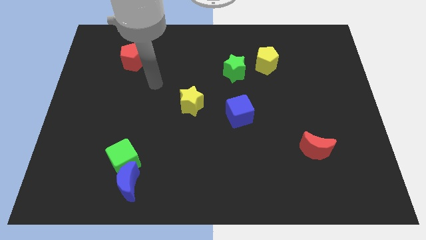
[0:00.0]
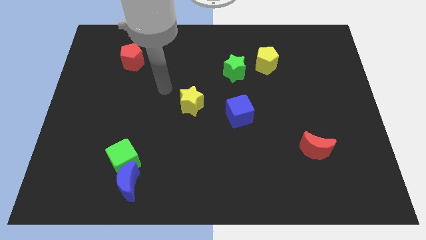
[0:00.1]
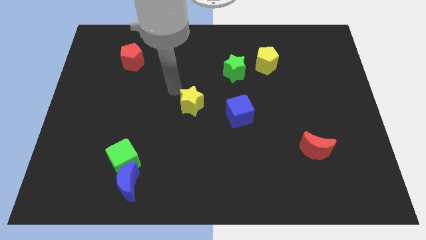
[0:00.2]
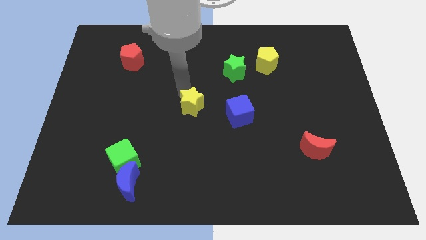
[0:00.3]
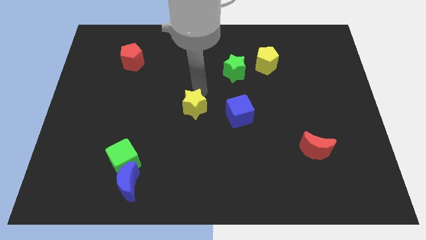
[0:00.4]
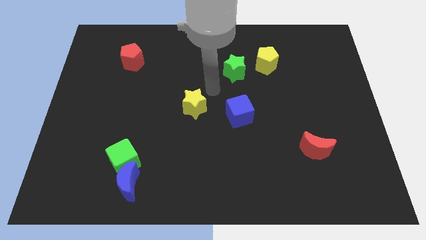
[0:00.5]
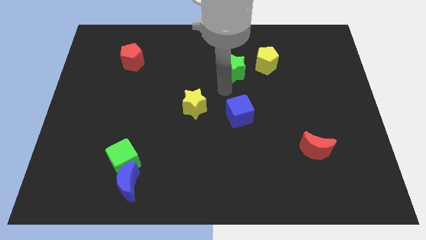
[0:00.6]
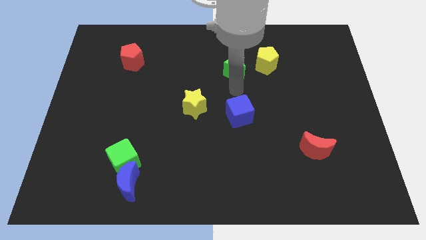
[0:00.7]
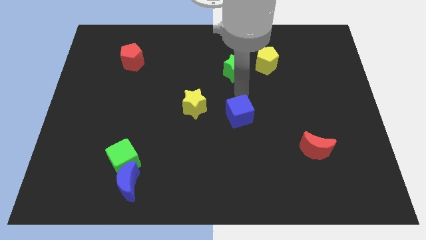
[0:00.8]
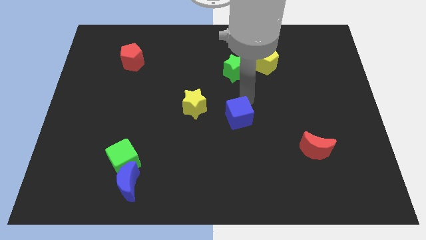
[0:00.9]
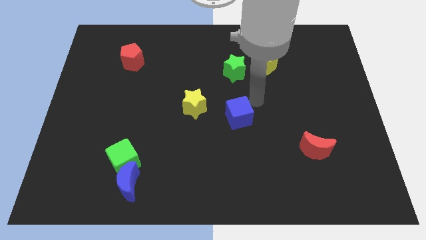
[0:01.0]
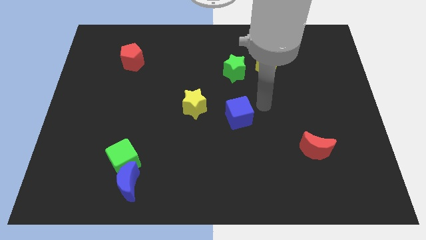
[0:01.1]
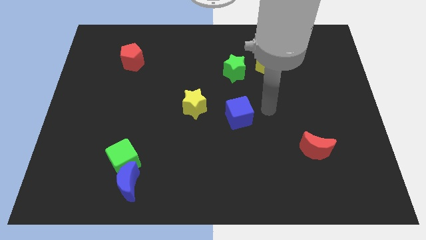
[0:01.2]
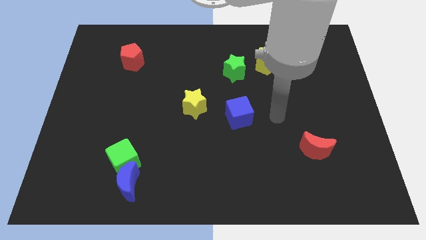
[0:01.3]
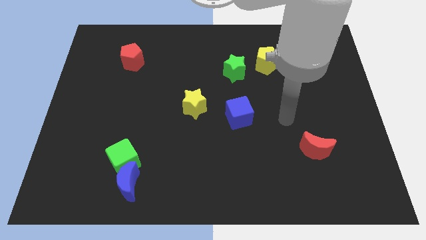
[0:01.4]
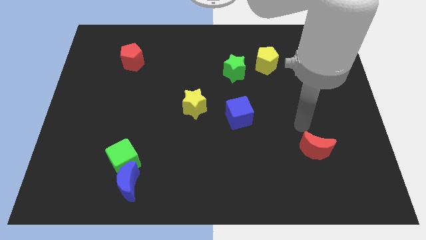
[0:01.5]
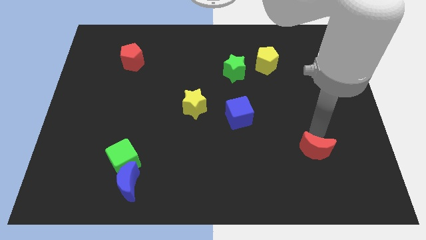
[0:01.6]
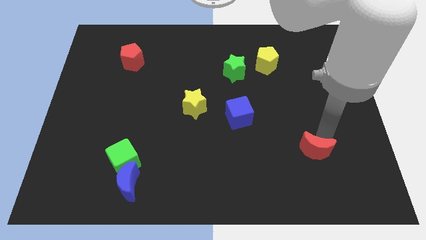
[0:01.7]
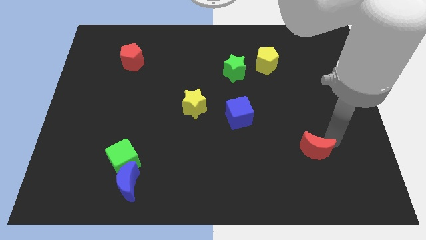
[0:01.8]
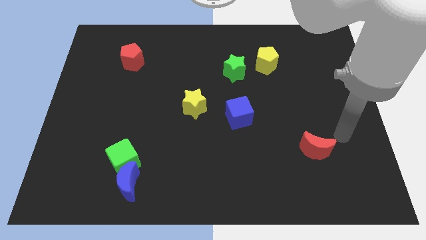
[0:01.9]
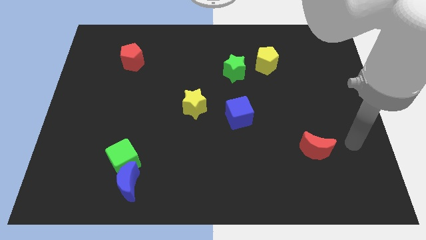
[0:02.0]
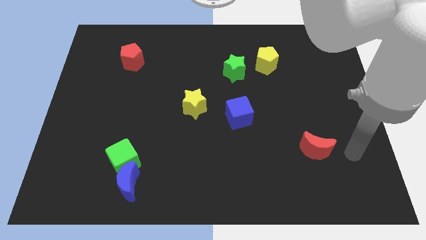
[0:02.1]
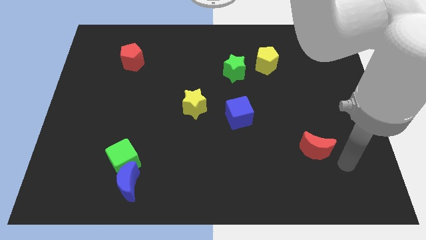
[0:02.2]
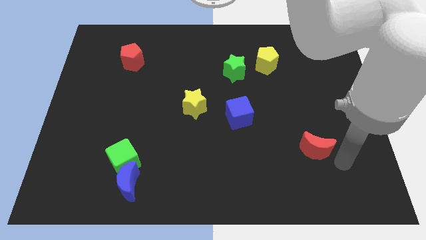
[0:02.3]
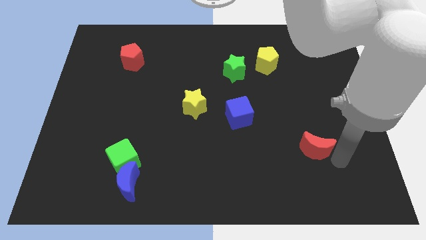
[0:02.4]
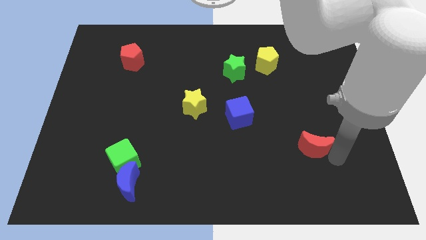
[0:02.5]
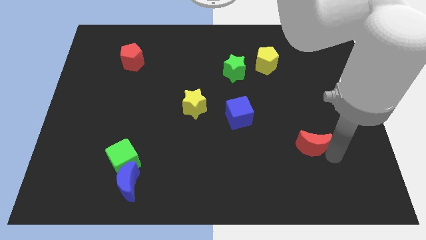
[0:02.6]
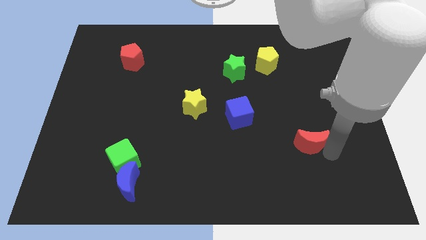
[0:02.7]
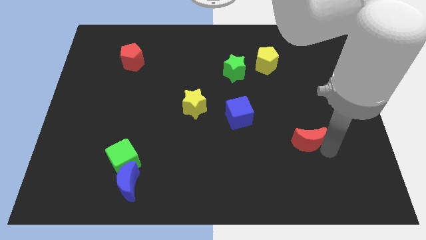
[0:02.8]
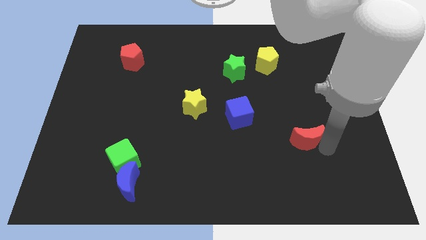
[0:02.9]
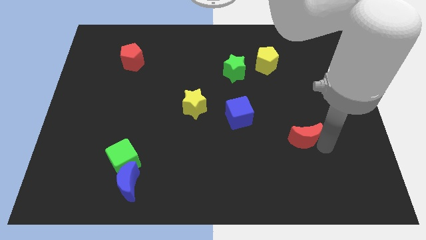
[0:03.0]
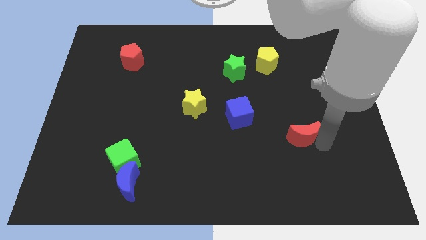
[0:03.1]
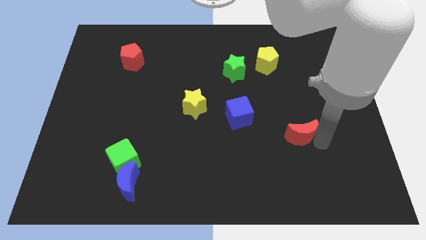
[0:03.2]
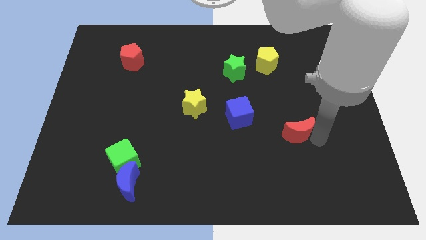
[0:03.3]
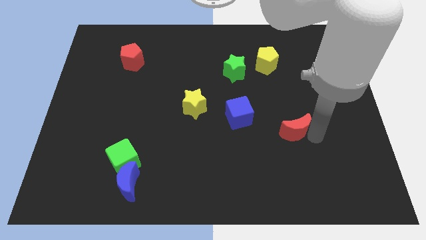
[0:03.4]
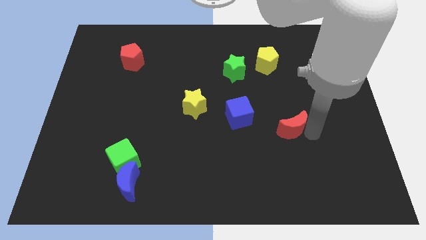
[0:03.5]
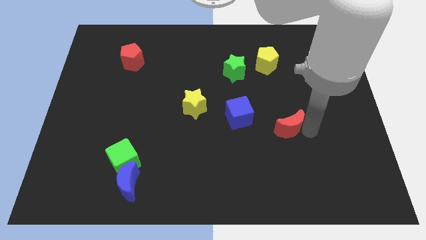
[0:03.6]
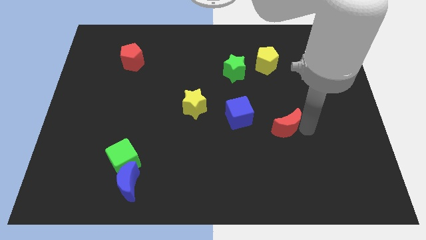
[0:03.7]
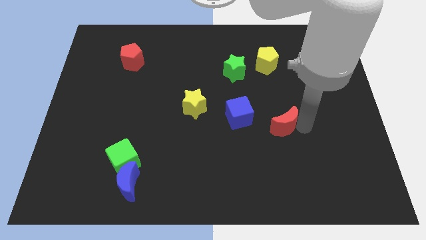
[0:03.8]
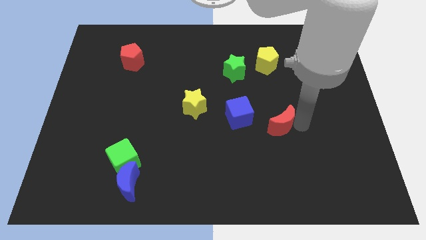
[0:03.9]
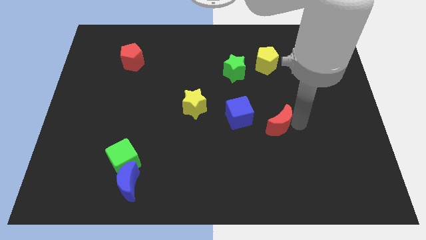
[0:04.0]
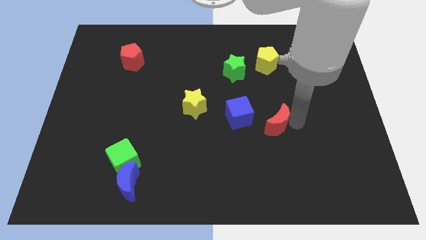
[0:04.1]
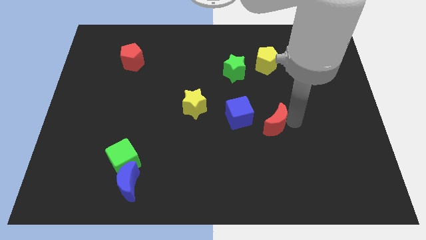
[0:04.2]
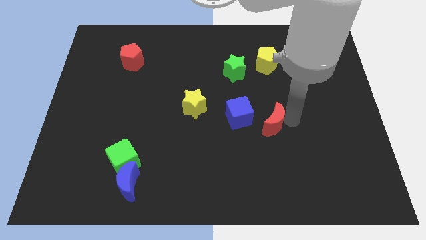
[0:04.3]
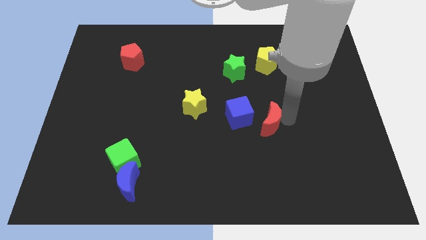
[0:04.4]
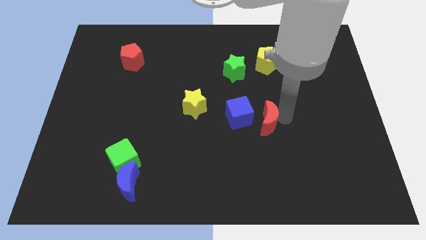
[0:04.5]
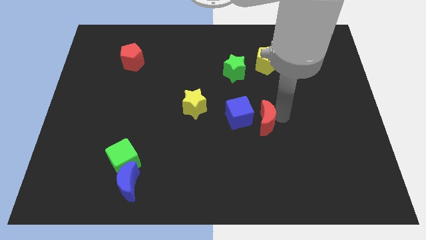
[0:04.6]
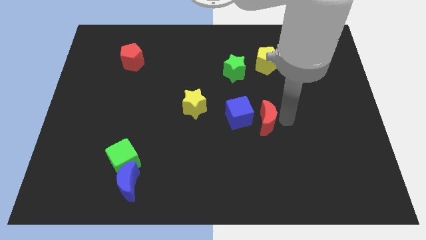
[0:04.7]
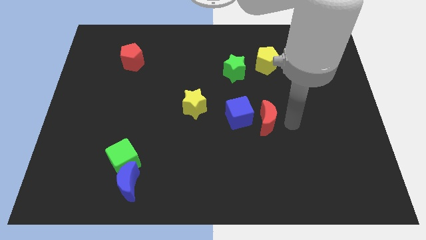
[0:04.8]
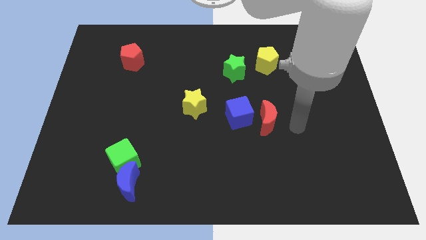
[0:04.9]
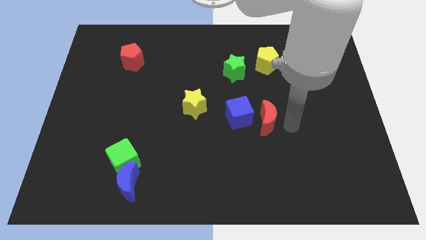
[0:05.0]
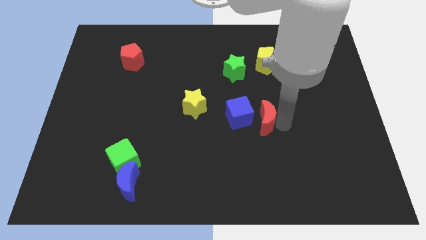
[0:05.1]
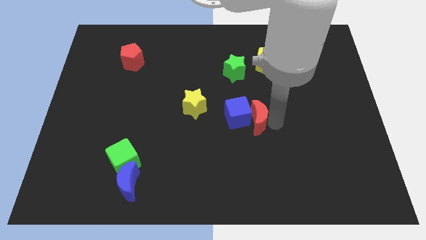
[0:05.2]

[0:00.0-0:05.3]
move the red moon close to the blue cube

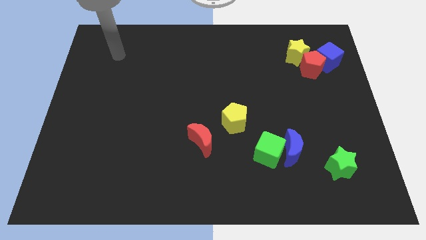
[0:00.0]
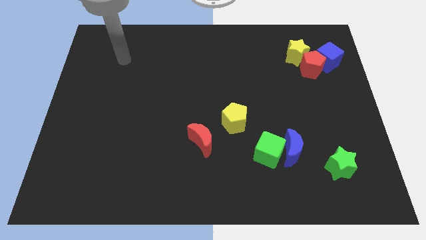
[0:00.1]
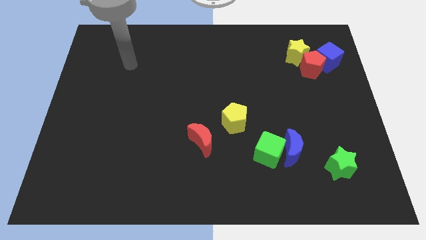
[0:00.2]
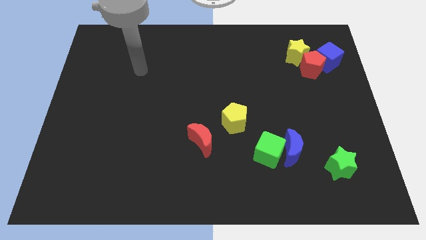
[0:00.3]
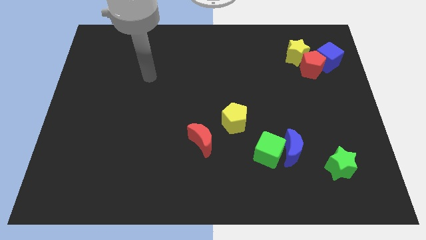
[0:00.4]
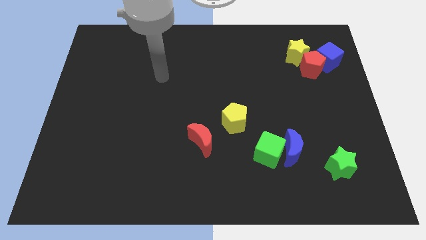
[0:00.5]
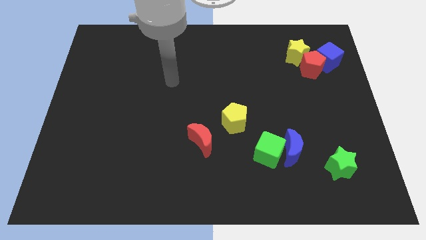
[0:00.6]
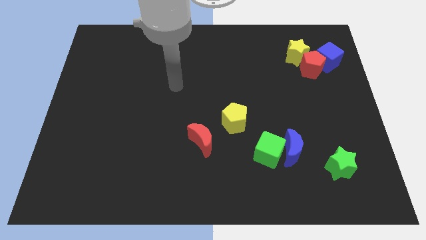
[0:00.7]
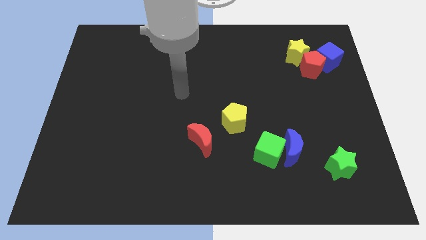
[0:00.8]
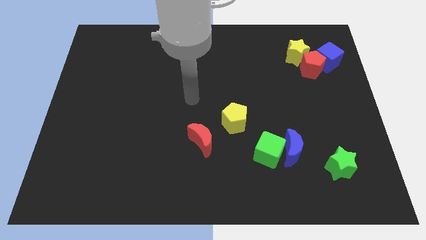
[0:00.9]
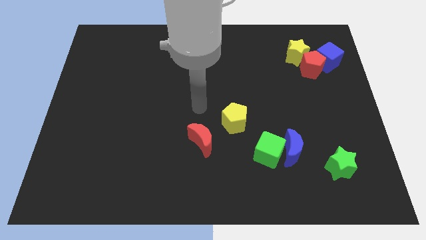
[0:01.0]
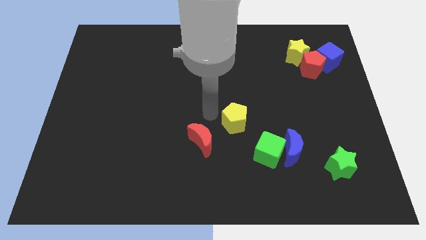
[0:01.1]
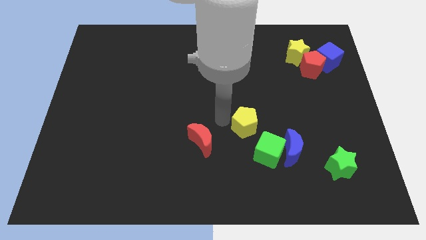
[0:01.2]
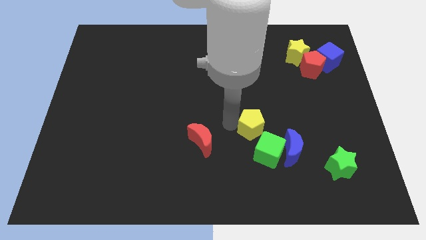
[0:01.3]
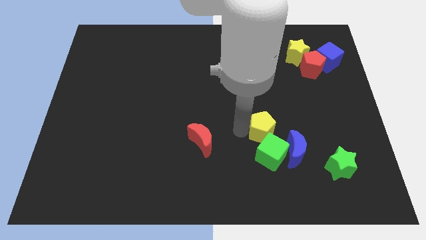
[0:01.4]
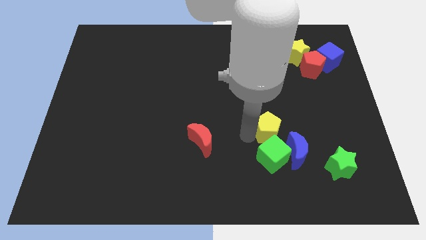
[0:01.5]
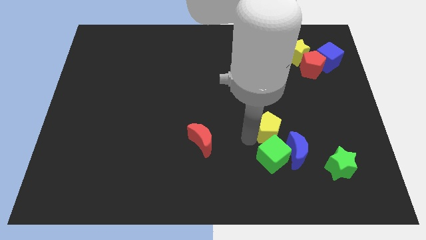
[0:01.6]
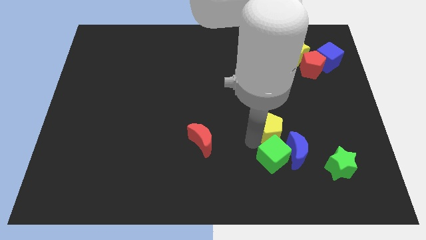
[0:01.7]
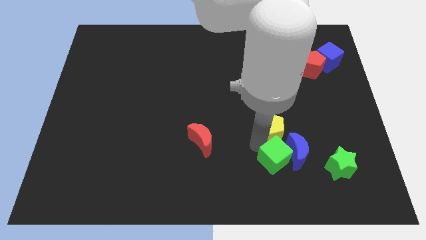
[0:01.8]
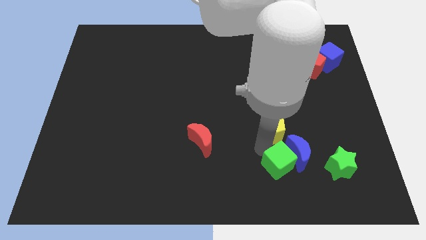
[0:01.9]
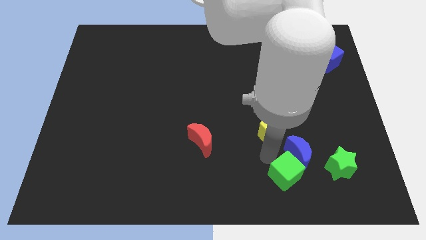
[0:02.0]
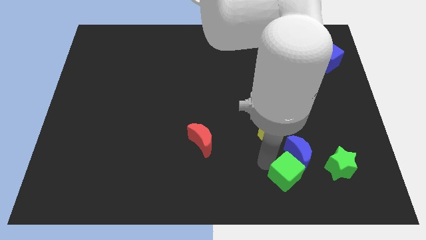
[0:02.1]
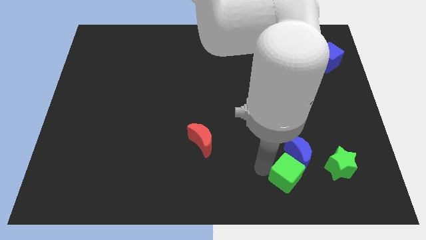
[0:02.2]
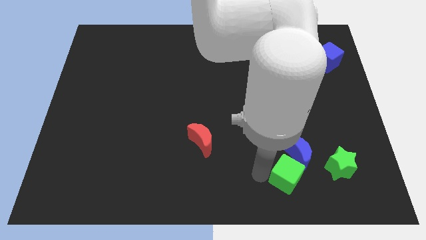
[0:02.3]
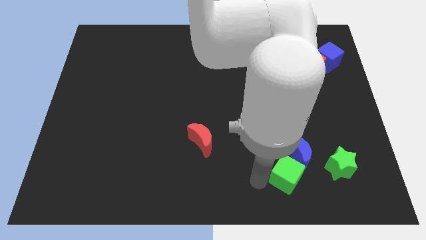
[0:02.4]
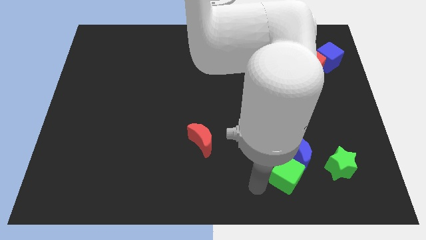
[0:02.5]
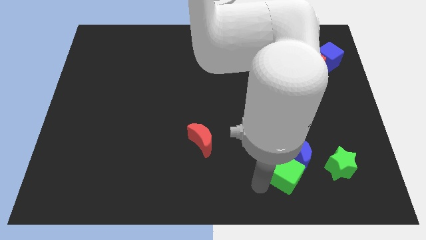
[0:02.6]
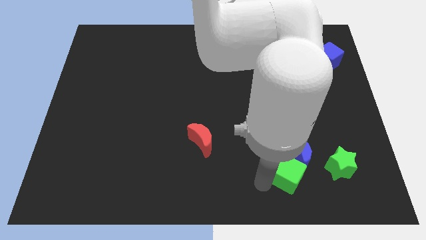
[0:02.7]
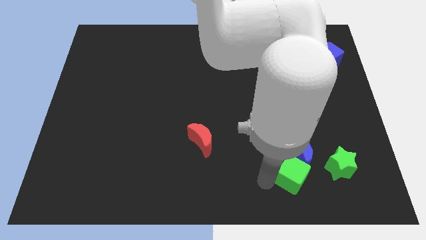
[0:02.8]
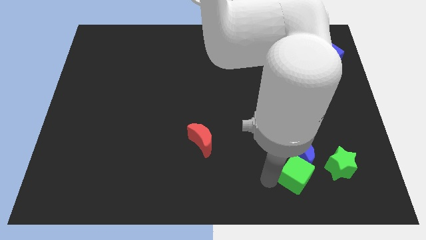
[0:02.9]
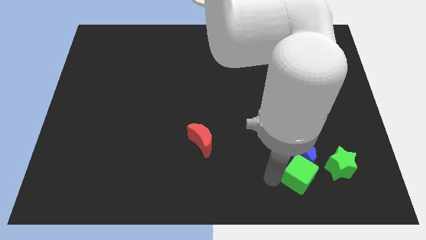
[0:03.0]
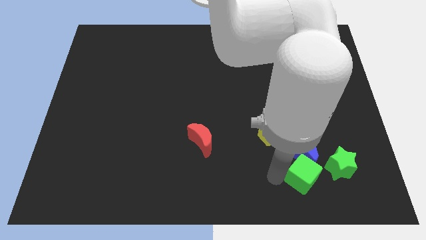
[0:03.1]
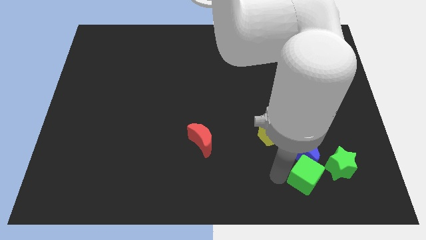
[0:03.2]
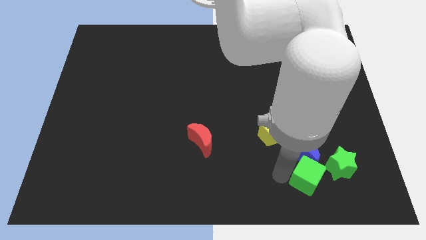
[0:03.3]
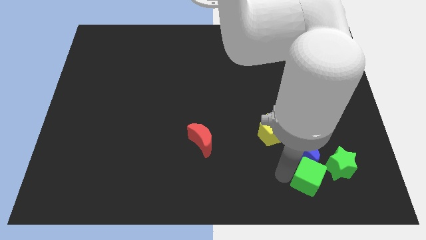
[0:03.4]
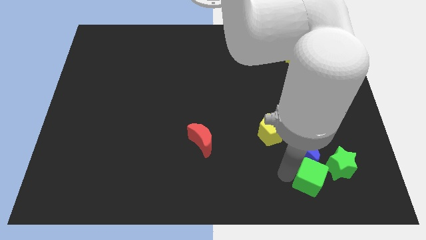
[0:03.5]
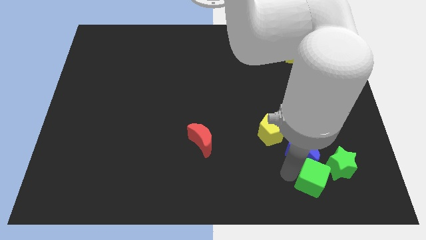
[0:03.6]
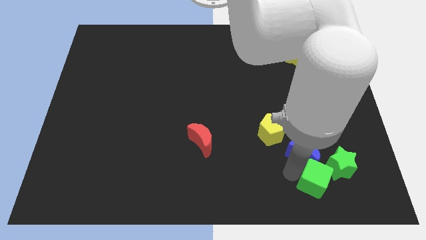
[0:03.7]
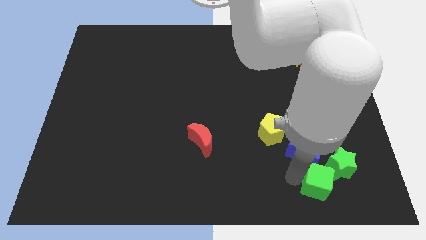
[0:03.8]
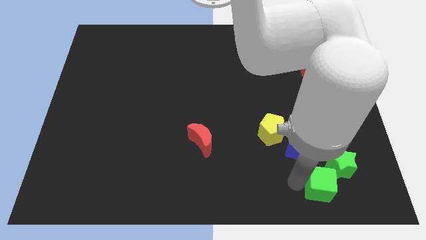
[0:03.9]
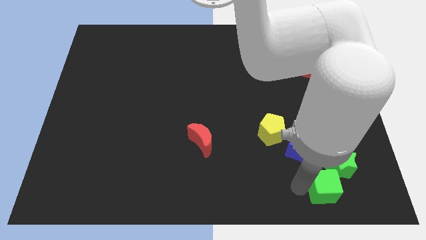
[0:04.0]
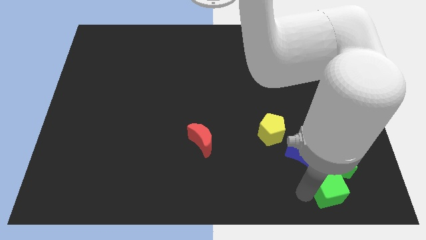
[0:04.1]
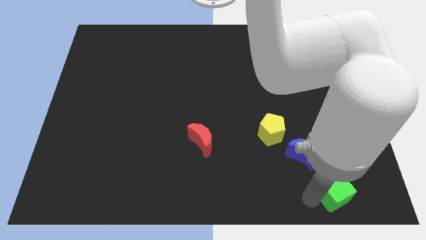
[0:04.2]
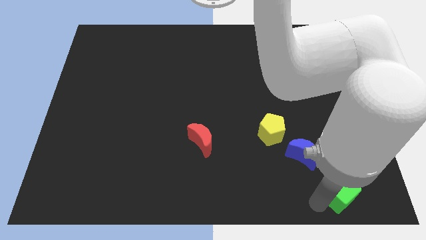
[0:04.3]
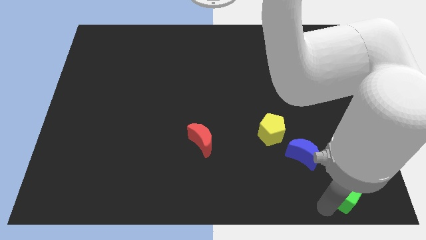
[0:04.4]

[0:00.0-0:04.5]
push the green cube close to the green star
